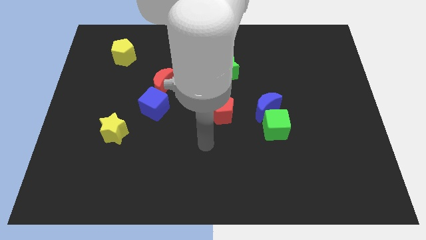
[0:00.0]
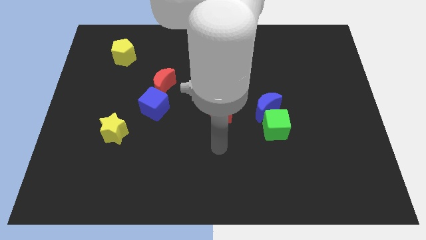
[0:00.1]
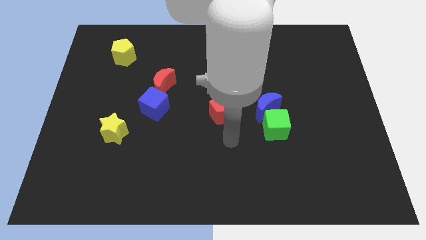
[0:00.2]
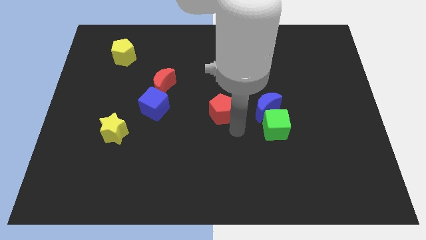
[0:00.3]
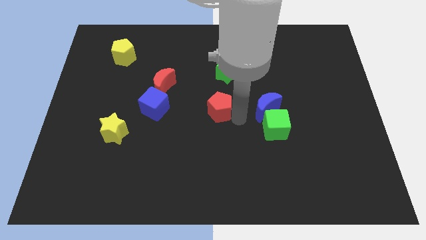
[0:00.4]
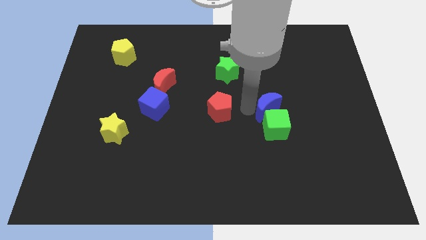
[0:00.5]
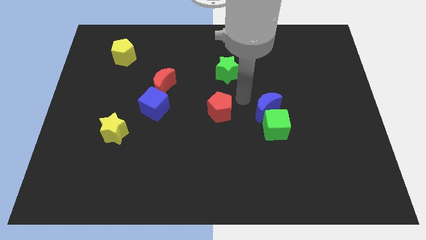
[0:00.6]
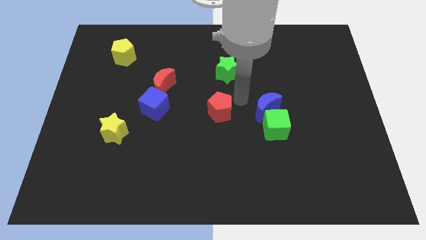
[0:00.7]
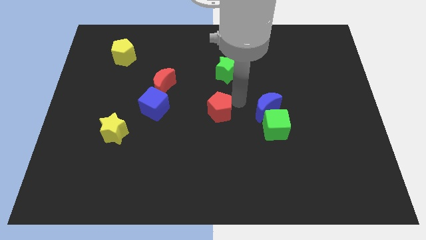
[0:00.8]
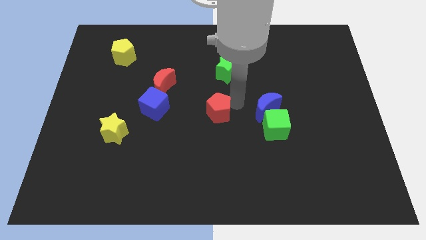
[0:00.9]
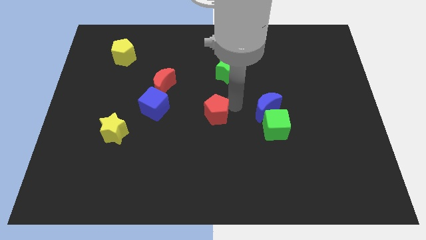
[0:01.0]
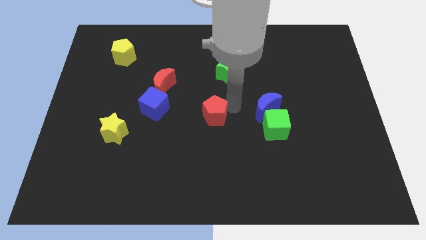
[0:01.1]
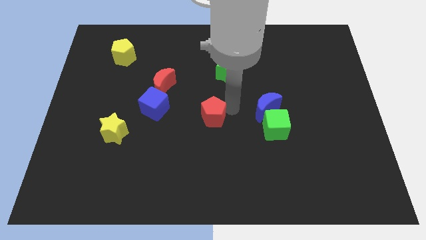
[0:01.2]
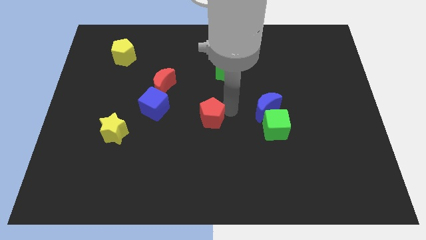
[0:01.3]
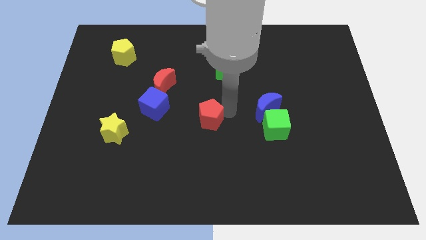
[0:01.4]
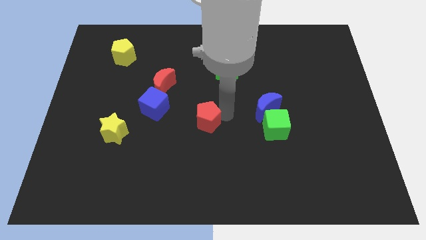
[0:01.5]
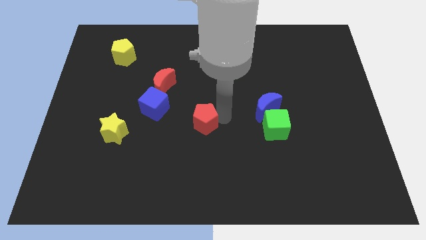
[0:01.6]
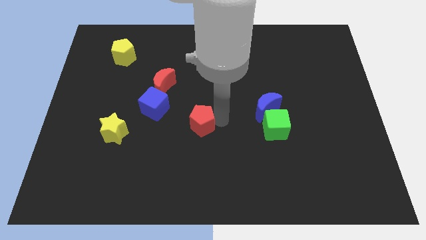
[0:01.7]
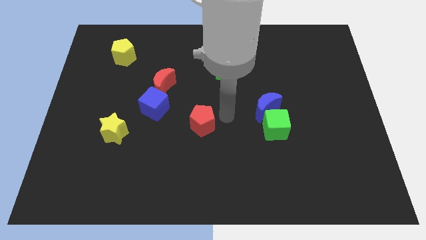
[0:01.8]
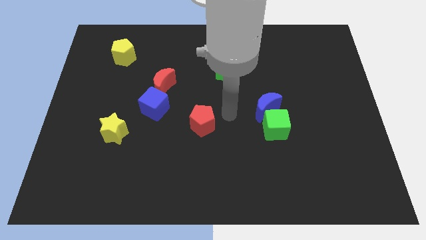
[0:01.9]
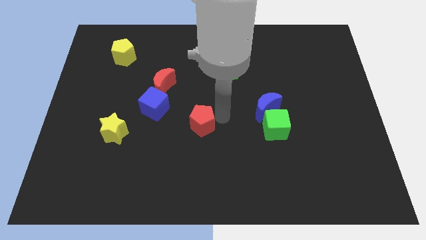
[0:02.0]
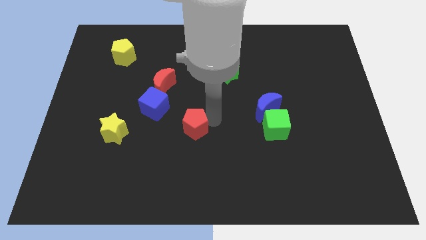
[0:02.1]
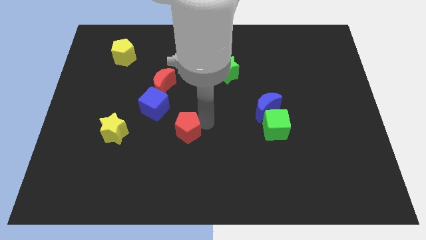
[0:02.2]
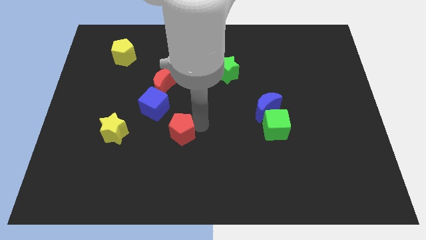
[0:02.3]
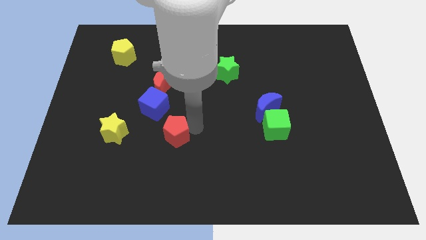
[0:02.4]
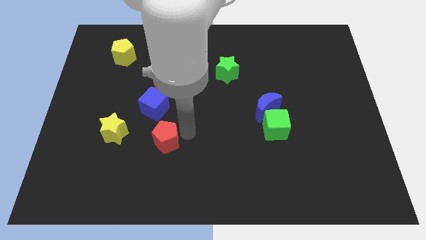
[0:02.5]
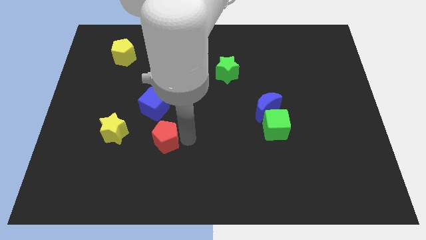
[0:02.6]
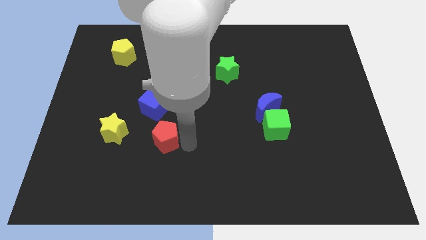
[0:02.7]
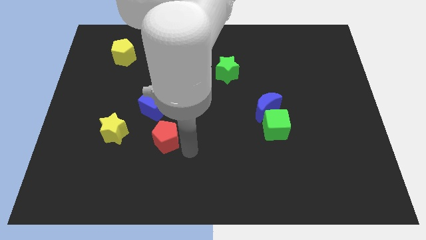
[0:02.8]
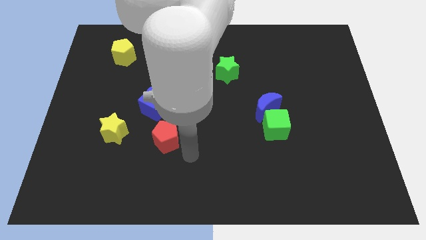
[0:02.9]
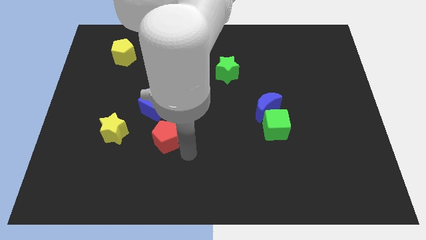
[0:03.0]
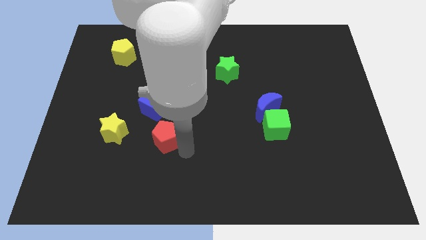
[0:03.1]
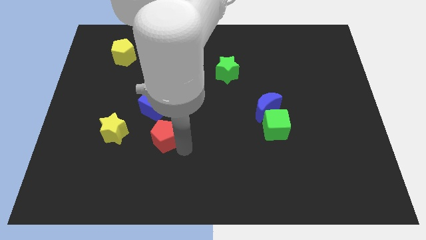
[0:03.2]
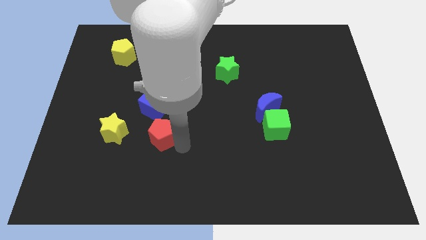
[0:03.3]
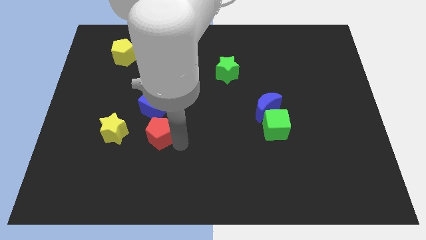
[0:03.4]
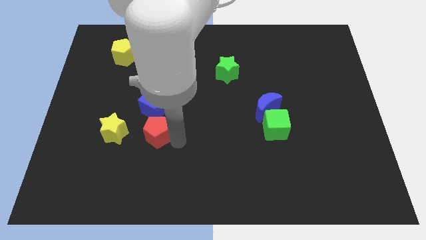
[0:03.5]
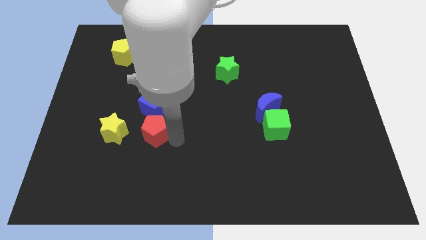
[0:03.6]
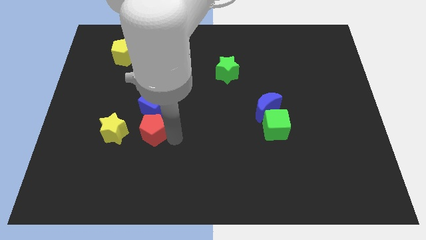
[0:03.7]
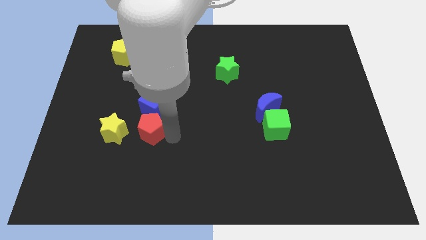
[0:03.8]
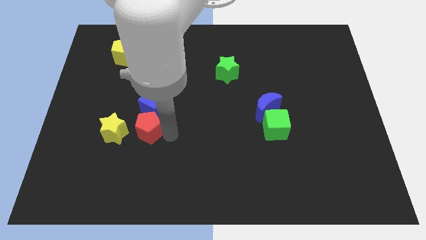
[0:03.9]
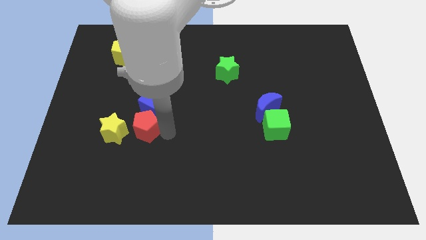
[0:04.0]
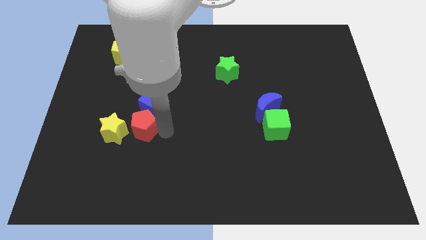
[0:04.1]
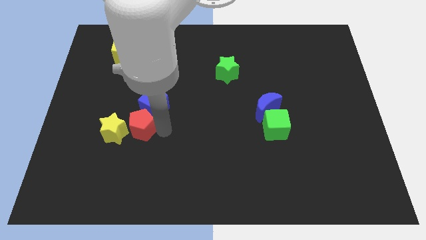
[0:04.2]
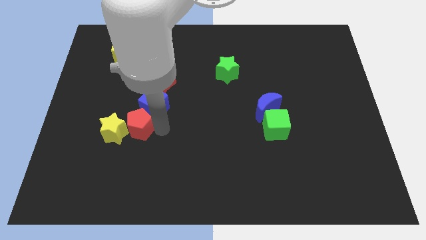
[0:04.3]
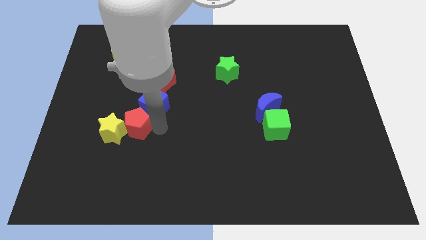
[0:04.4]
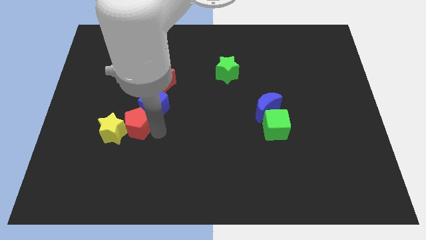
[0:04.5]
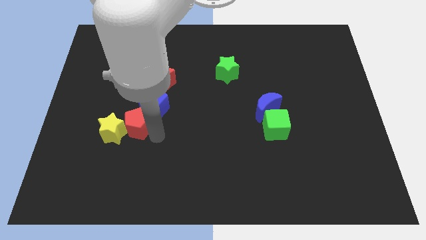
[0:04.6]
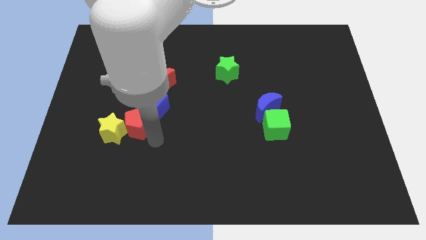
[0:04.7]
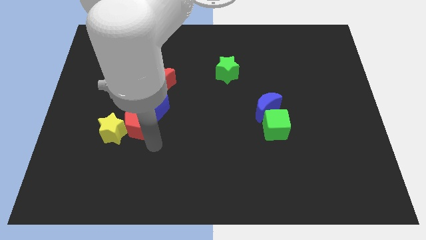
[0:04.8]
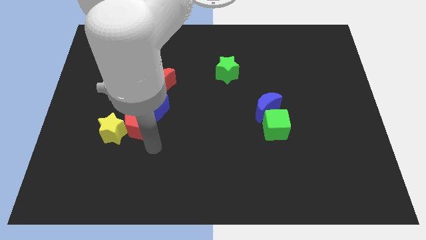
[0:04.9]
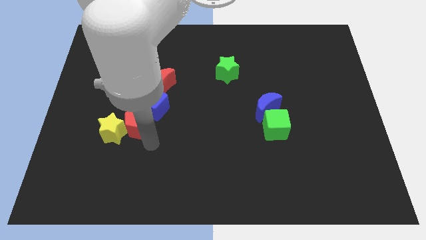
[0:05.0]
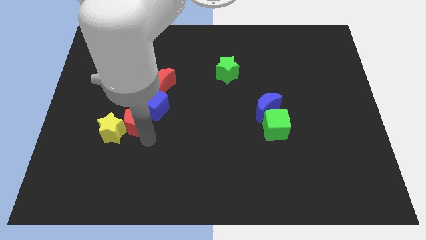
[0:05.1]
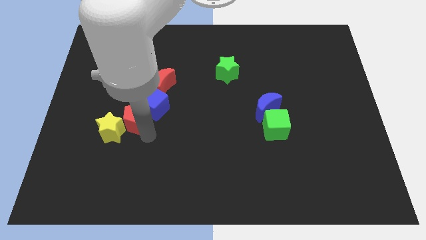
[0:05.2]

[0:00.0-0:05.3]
put the red pentagon just left of the blue cube

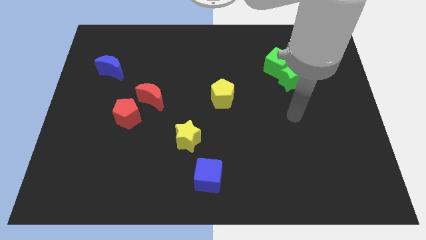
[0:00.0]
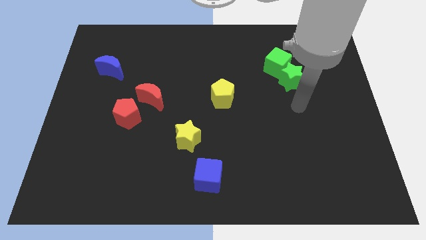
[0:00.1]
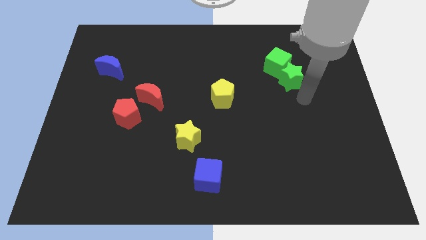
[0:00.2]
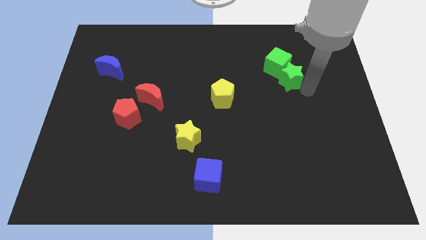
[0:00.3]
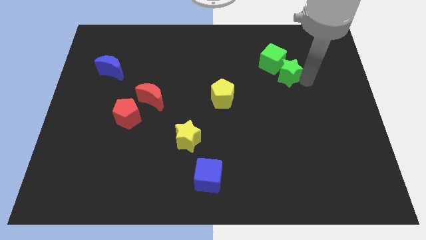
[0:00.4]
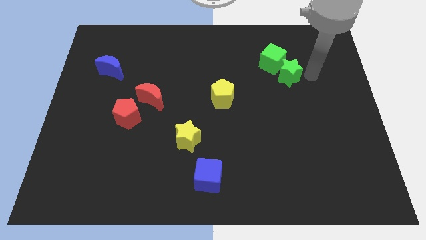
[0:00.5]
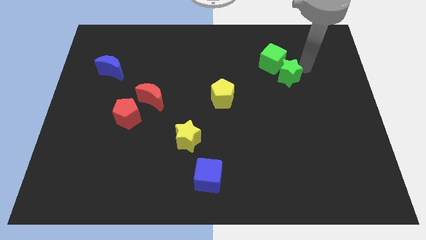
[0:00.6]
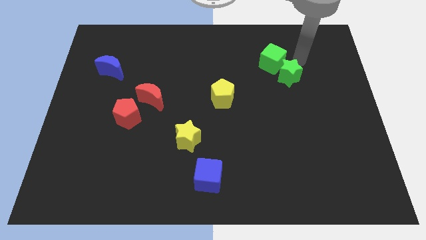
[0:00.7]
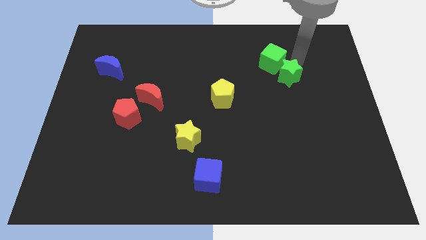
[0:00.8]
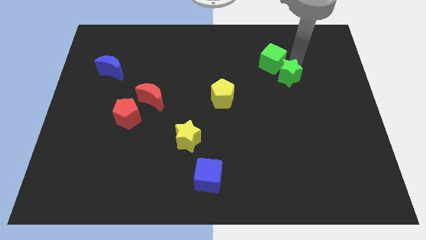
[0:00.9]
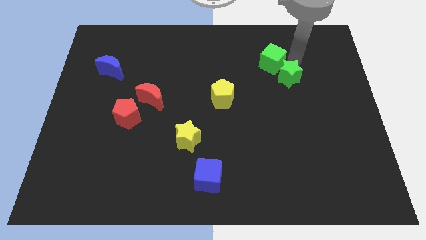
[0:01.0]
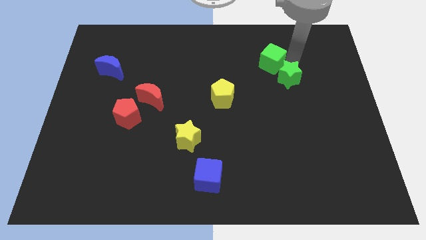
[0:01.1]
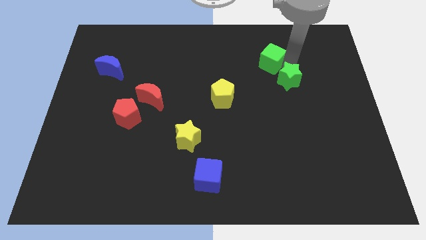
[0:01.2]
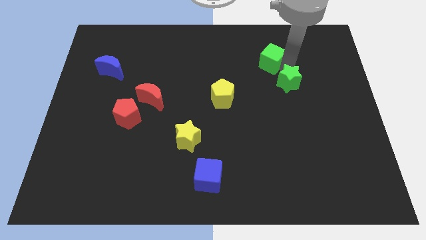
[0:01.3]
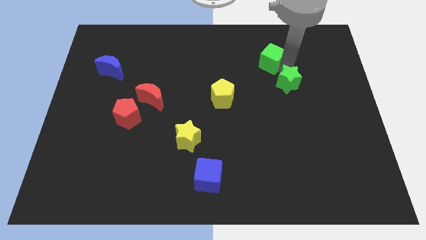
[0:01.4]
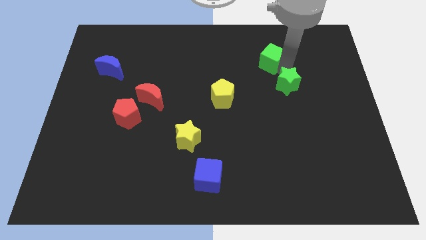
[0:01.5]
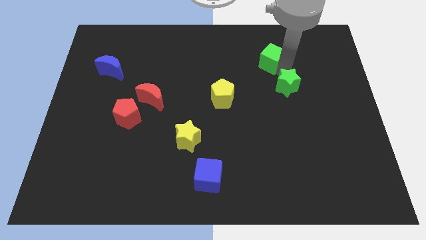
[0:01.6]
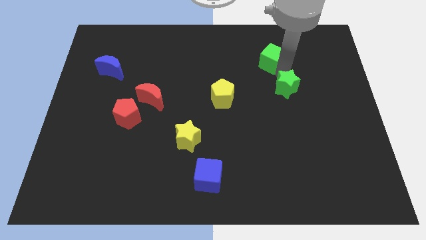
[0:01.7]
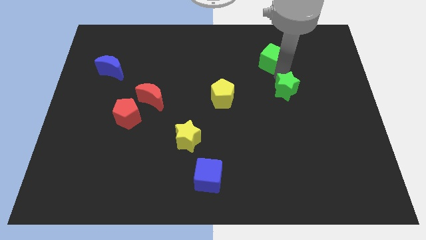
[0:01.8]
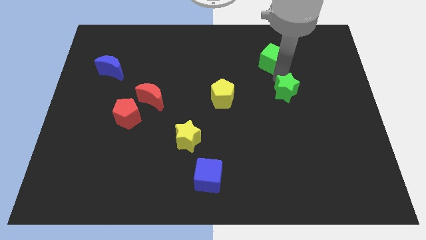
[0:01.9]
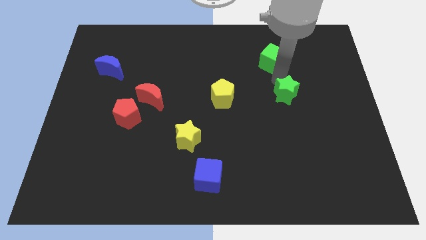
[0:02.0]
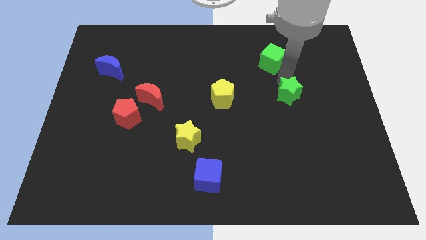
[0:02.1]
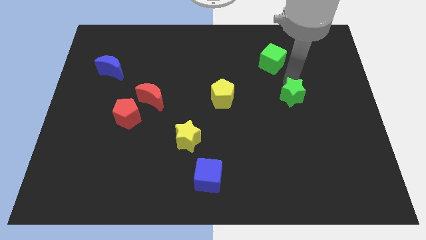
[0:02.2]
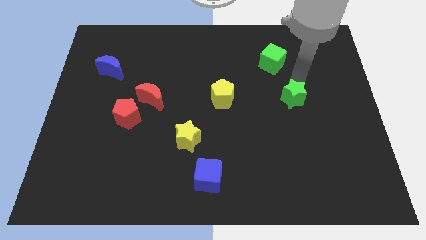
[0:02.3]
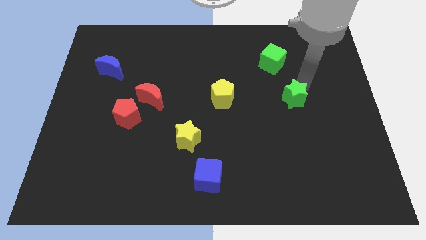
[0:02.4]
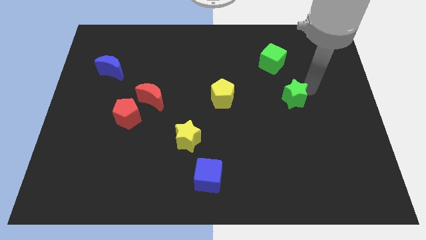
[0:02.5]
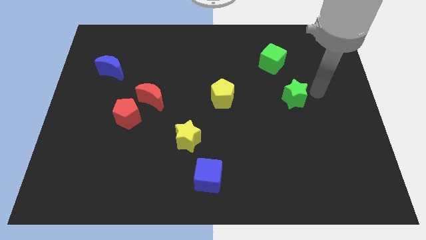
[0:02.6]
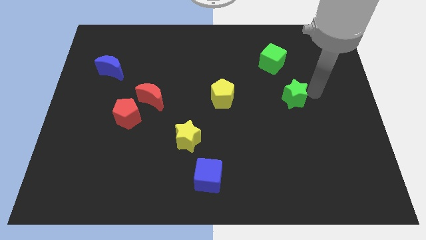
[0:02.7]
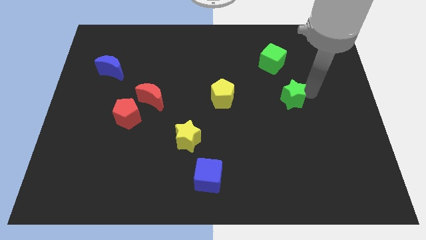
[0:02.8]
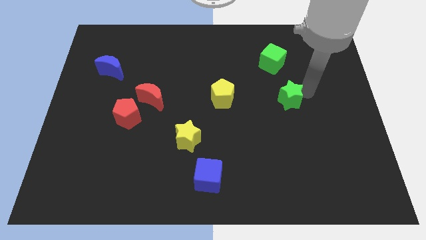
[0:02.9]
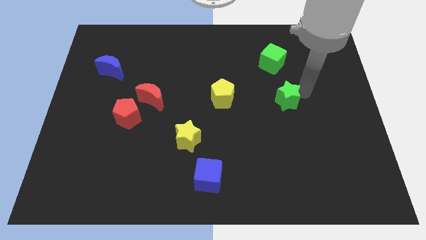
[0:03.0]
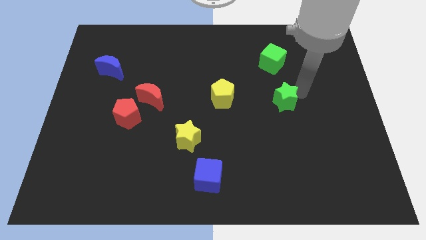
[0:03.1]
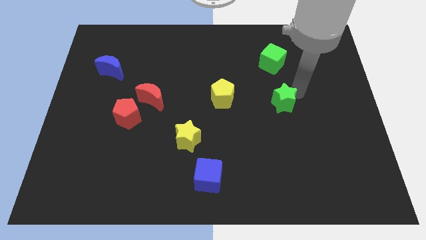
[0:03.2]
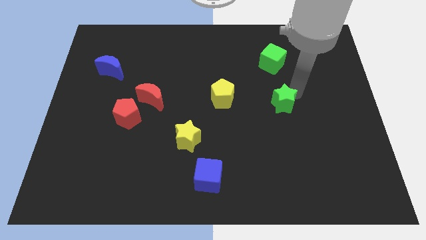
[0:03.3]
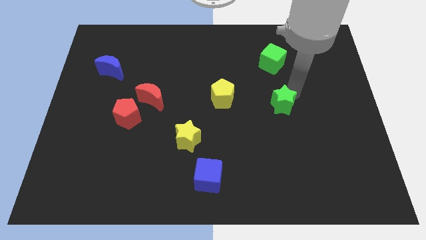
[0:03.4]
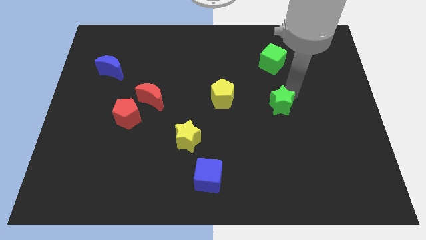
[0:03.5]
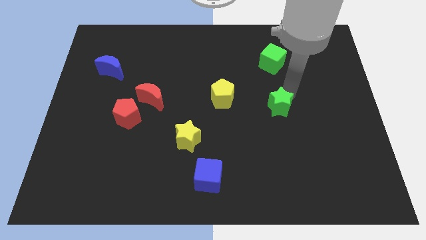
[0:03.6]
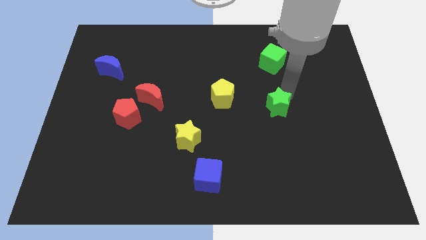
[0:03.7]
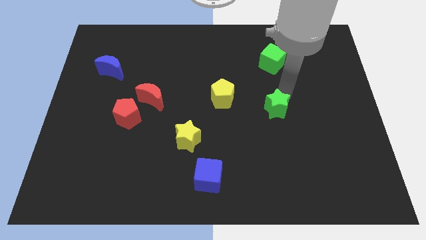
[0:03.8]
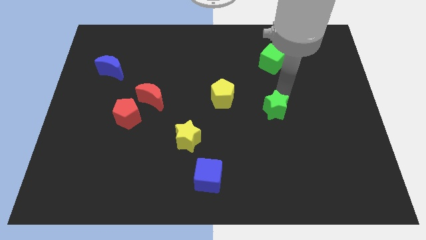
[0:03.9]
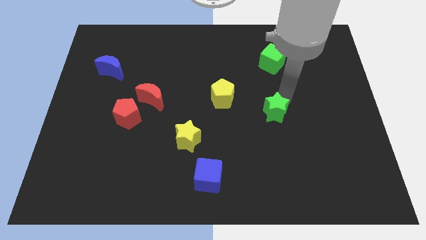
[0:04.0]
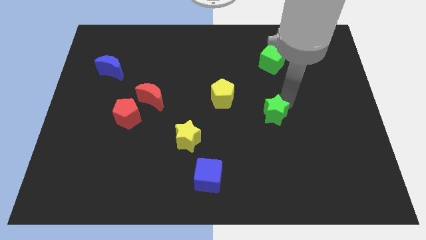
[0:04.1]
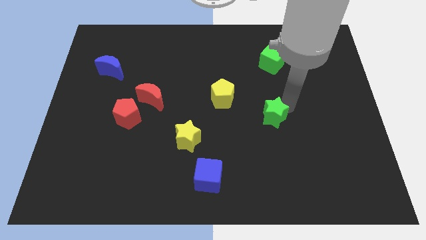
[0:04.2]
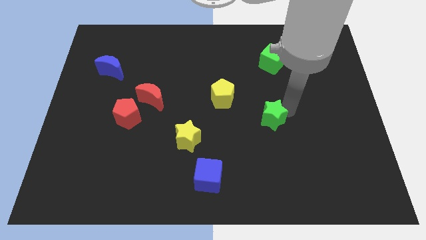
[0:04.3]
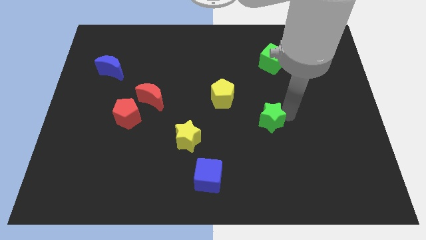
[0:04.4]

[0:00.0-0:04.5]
move the green star to the bottom right side of the yellow pentagon
